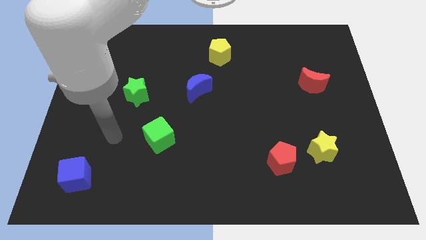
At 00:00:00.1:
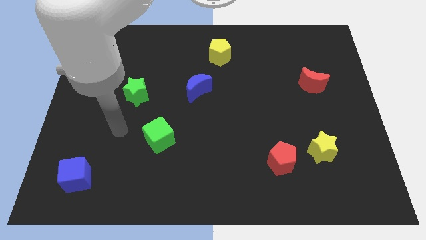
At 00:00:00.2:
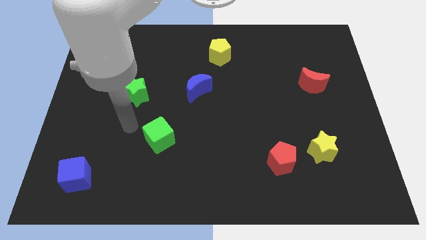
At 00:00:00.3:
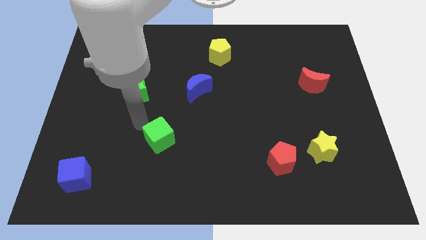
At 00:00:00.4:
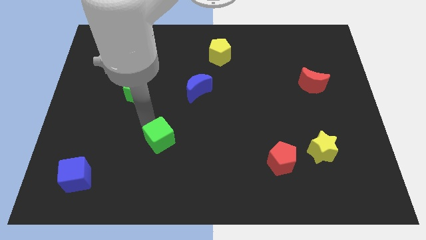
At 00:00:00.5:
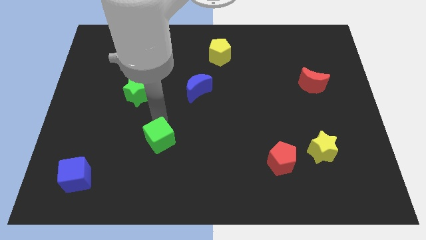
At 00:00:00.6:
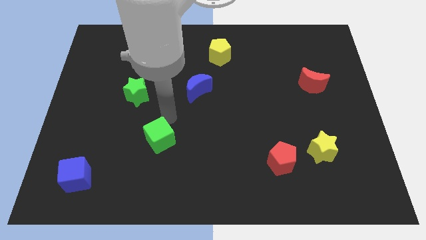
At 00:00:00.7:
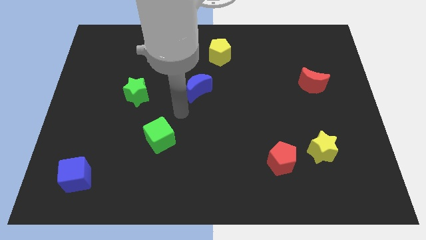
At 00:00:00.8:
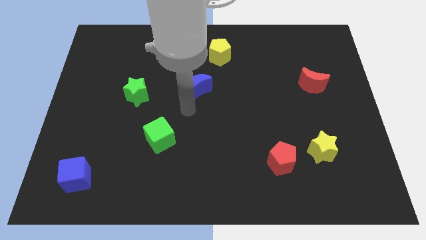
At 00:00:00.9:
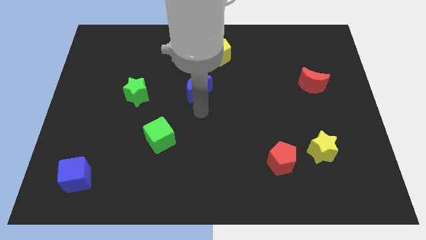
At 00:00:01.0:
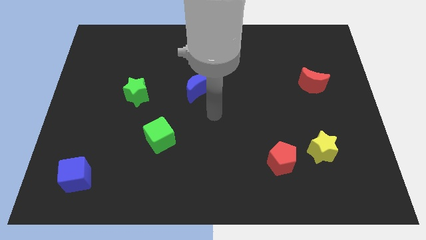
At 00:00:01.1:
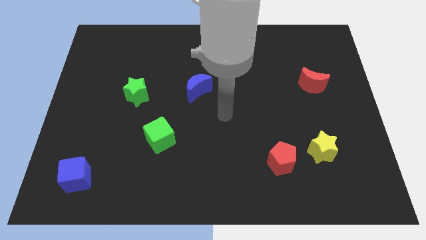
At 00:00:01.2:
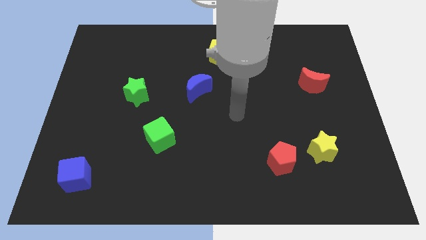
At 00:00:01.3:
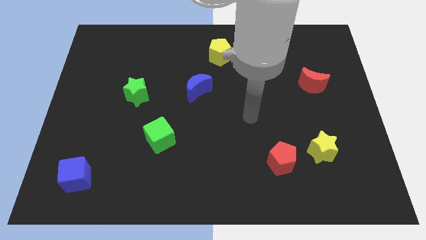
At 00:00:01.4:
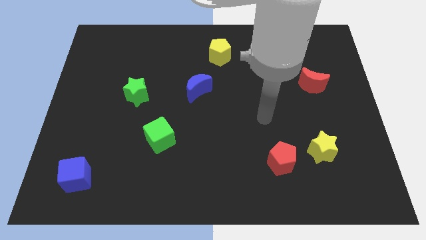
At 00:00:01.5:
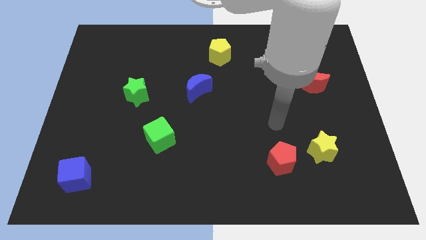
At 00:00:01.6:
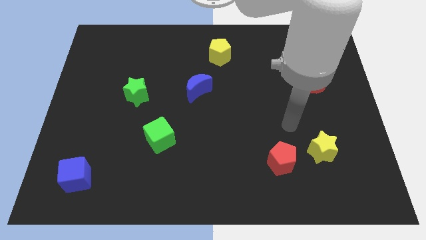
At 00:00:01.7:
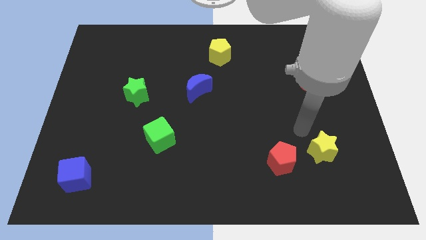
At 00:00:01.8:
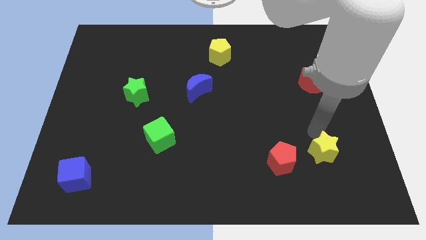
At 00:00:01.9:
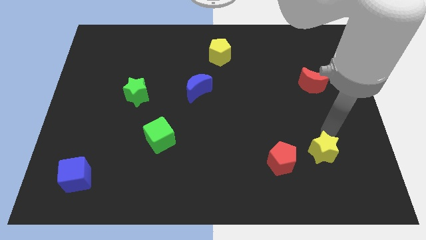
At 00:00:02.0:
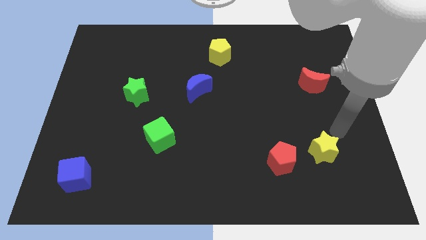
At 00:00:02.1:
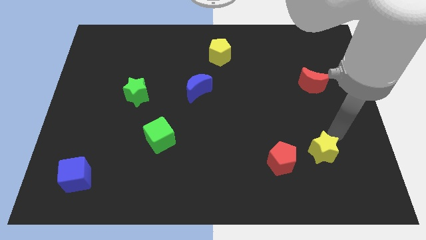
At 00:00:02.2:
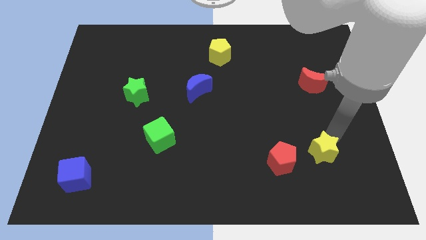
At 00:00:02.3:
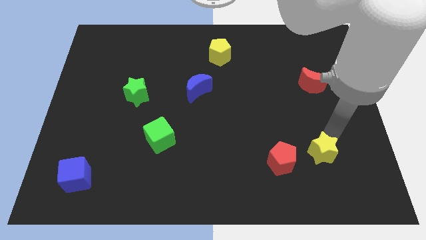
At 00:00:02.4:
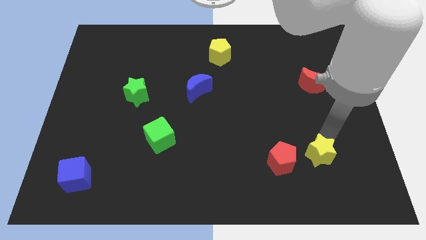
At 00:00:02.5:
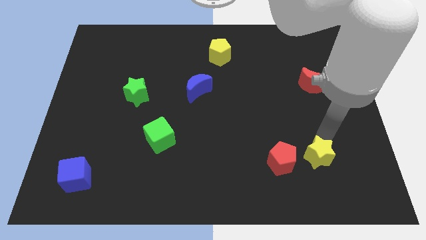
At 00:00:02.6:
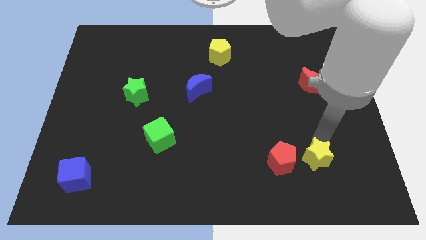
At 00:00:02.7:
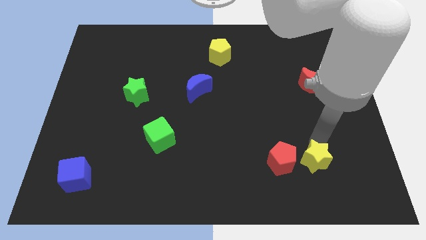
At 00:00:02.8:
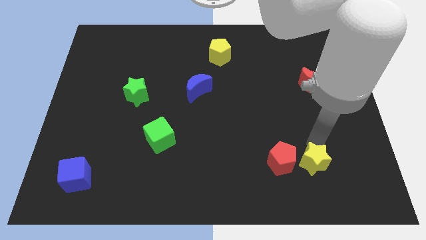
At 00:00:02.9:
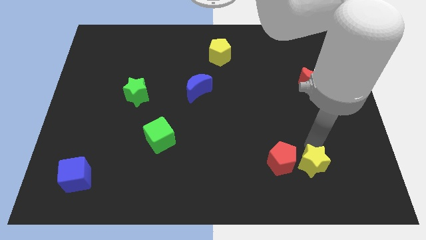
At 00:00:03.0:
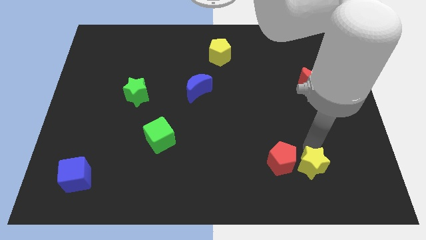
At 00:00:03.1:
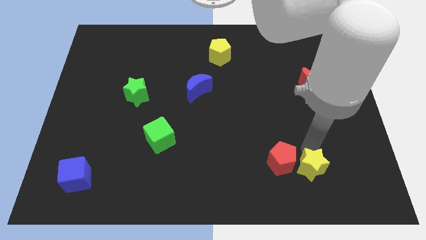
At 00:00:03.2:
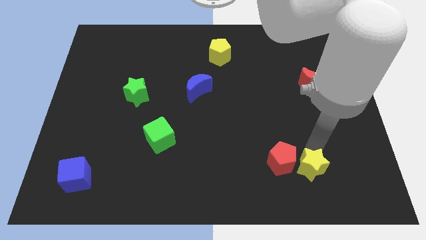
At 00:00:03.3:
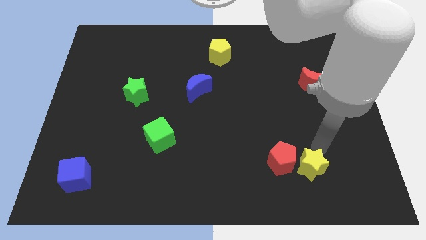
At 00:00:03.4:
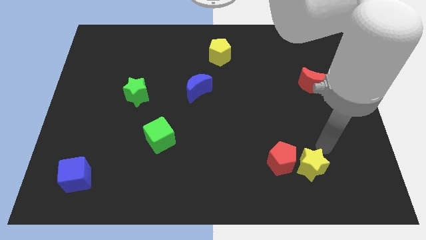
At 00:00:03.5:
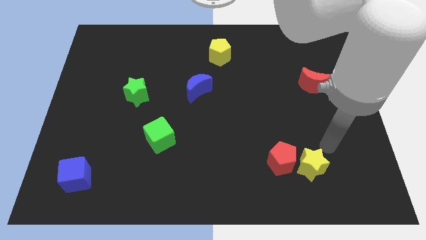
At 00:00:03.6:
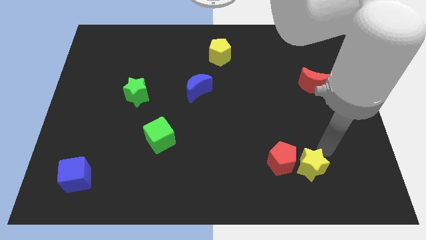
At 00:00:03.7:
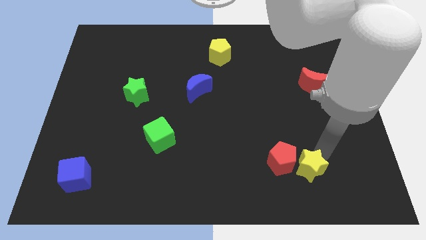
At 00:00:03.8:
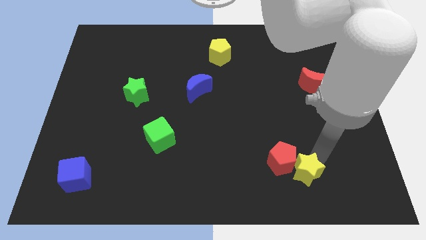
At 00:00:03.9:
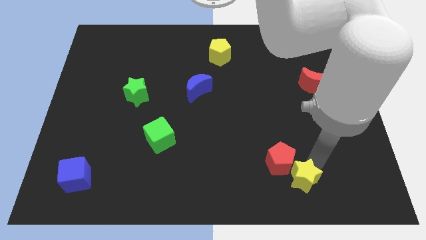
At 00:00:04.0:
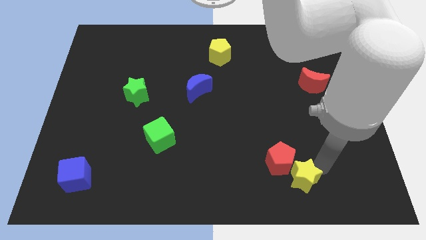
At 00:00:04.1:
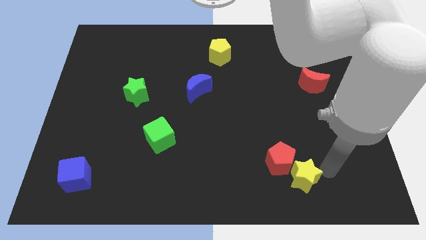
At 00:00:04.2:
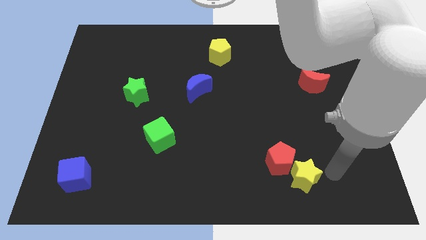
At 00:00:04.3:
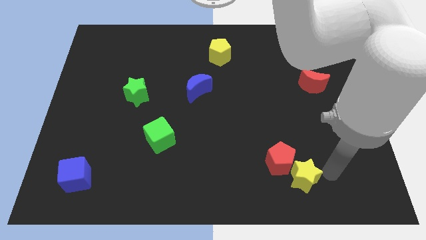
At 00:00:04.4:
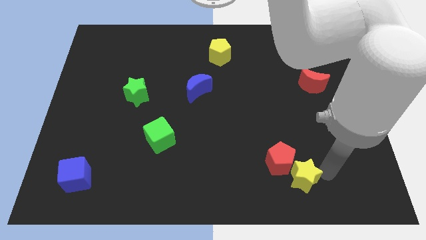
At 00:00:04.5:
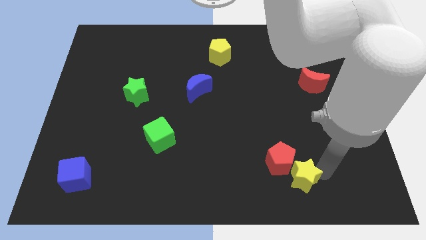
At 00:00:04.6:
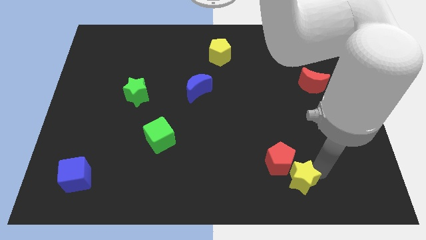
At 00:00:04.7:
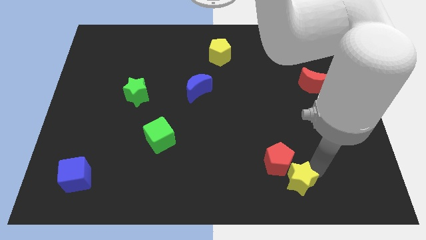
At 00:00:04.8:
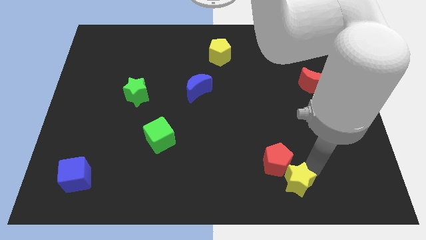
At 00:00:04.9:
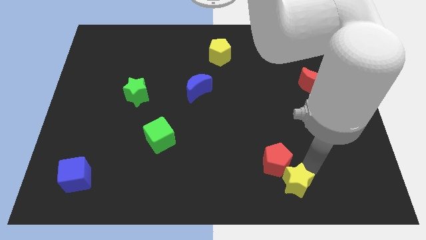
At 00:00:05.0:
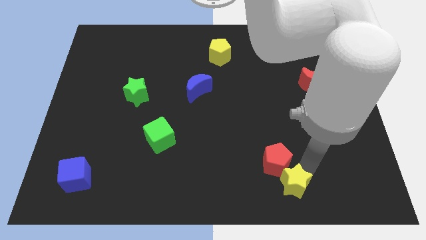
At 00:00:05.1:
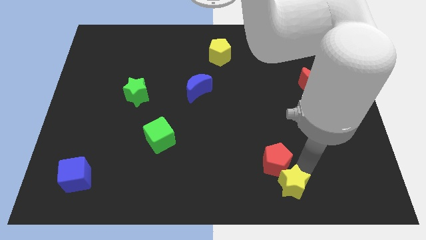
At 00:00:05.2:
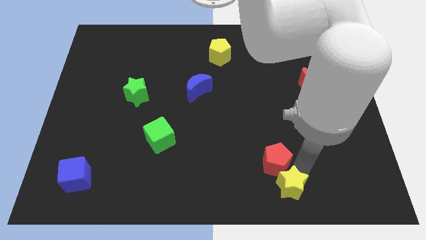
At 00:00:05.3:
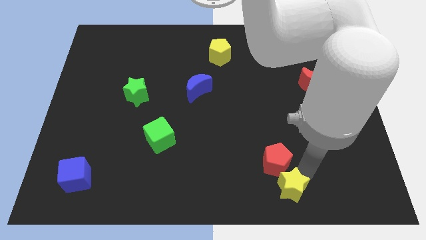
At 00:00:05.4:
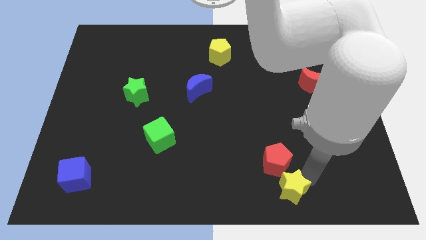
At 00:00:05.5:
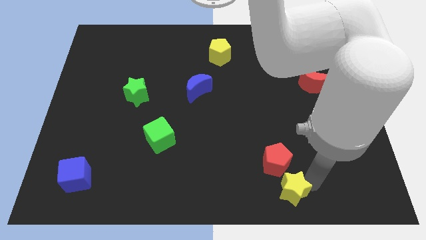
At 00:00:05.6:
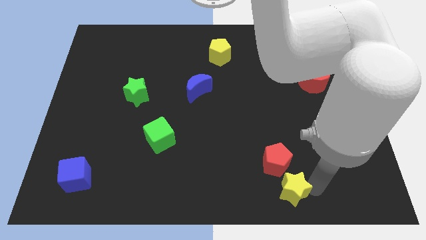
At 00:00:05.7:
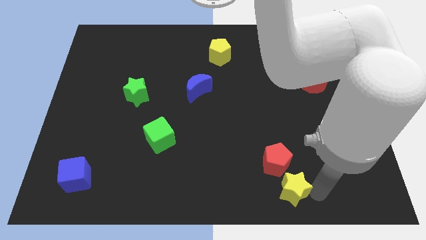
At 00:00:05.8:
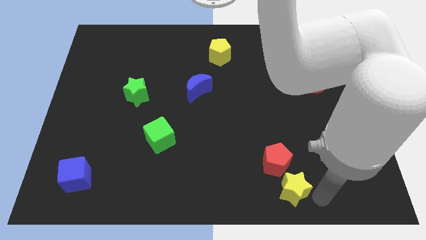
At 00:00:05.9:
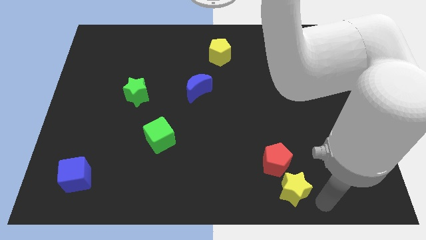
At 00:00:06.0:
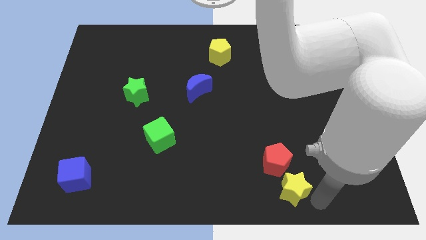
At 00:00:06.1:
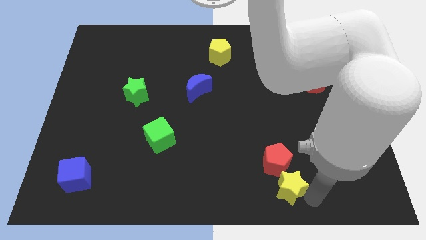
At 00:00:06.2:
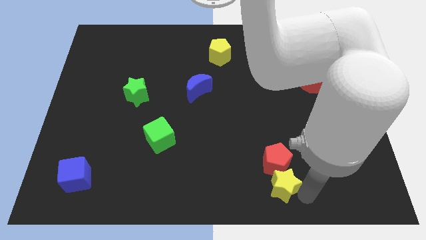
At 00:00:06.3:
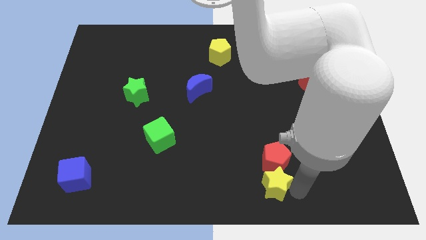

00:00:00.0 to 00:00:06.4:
push the yellow star to the bottom

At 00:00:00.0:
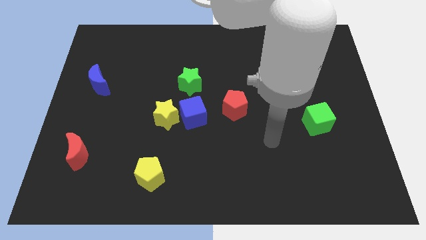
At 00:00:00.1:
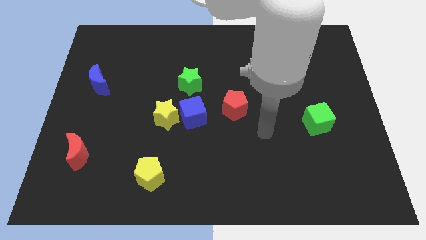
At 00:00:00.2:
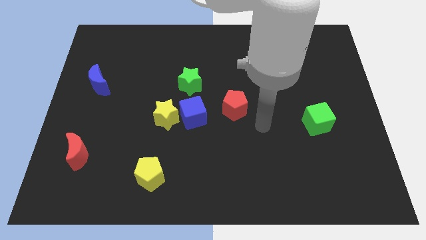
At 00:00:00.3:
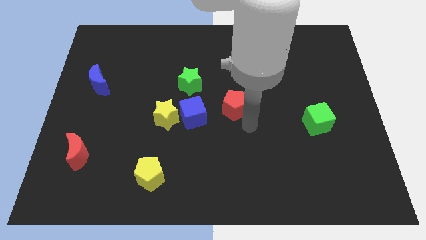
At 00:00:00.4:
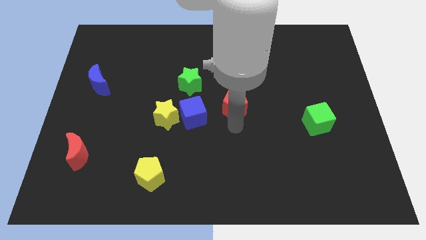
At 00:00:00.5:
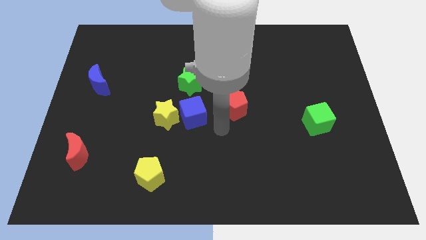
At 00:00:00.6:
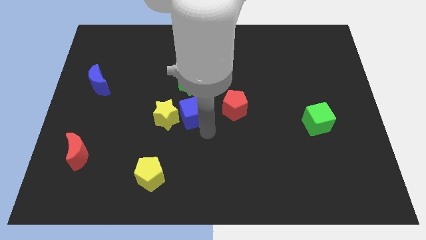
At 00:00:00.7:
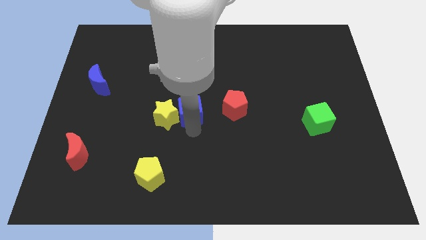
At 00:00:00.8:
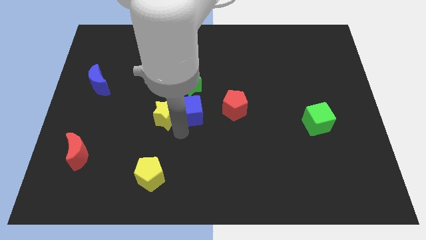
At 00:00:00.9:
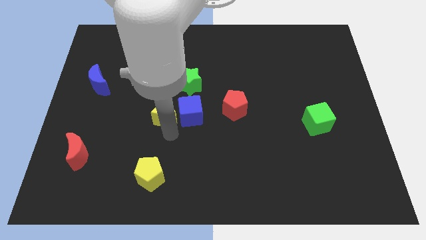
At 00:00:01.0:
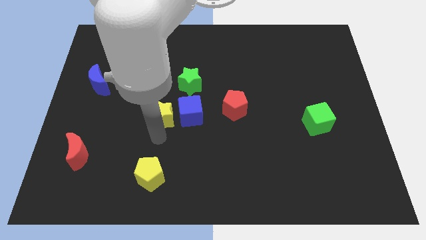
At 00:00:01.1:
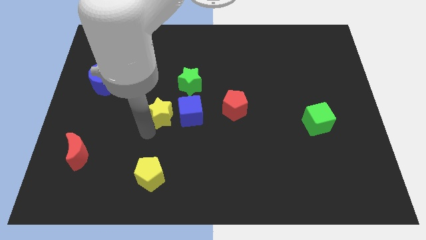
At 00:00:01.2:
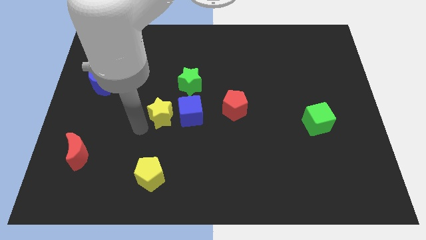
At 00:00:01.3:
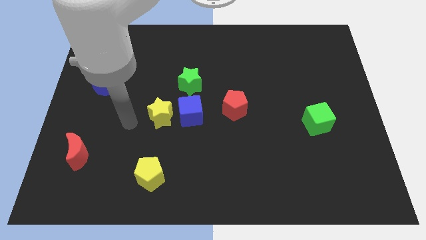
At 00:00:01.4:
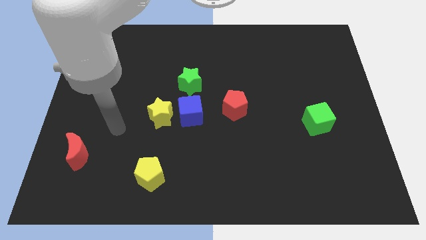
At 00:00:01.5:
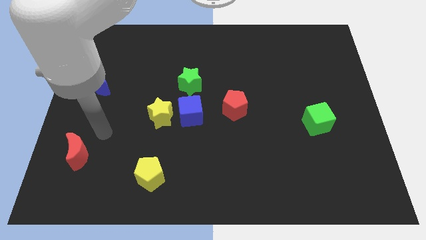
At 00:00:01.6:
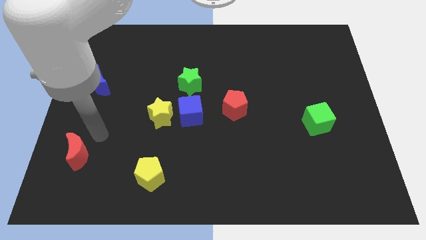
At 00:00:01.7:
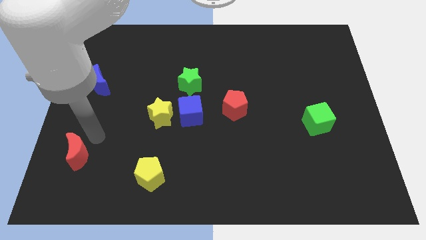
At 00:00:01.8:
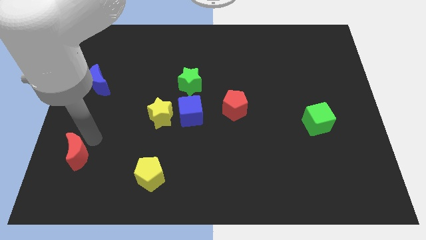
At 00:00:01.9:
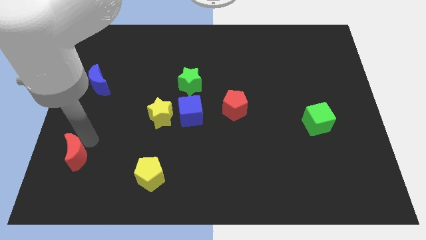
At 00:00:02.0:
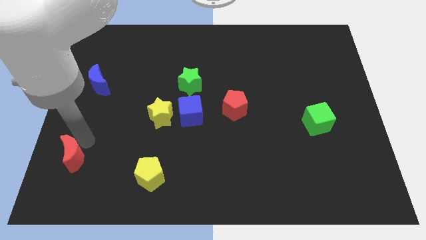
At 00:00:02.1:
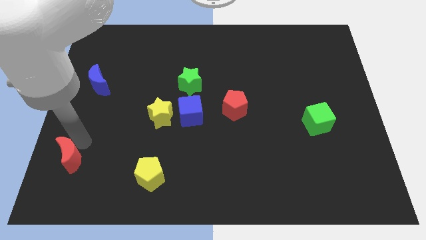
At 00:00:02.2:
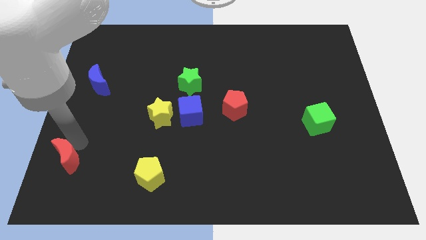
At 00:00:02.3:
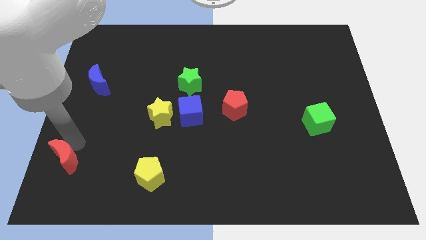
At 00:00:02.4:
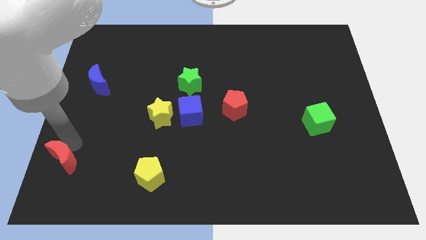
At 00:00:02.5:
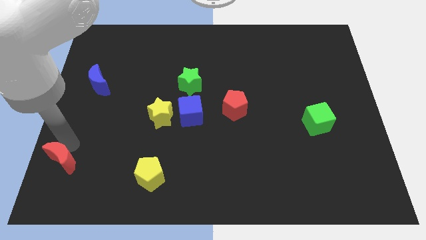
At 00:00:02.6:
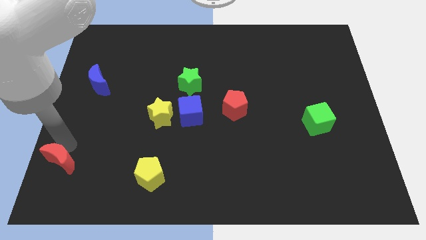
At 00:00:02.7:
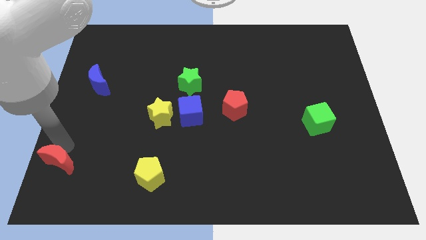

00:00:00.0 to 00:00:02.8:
move the red moon to the lower left corner
